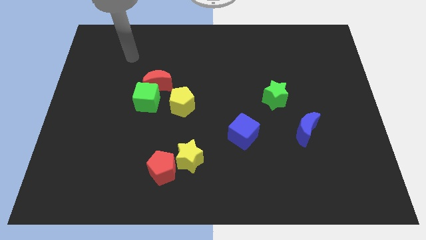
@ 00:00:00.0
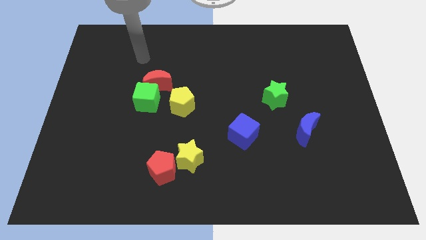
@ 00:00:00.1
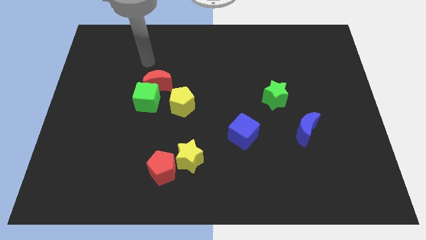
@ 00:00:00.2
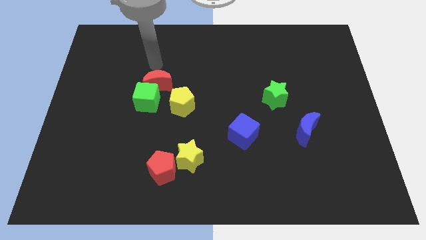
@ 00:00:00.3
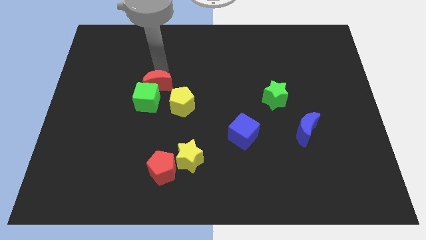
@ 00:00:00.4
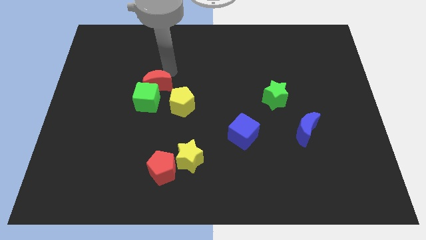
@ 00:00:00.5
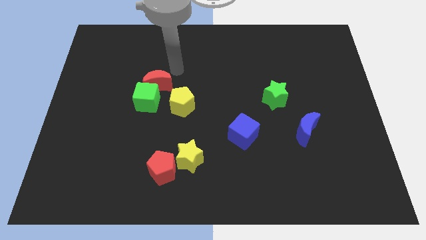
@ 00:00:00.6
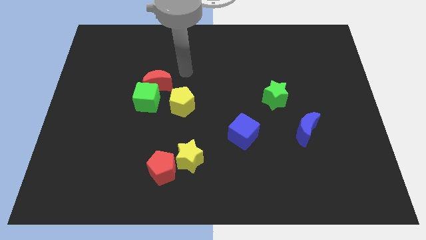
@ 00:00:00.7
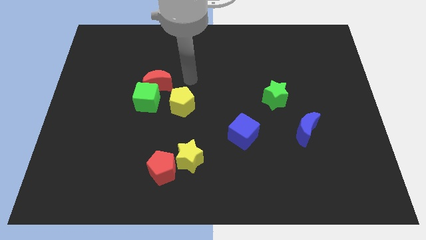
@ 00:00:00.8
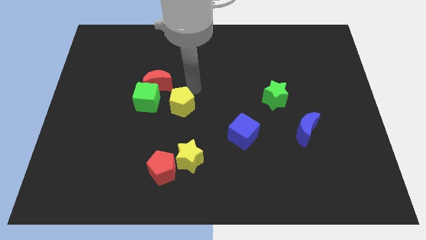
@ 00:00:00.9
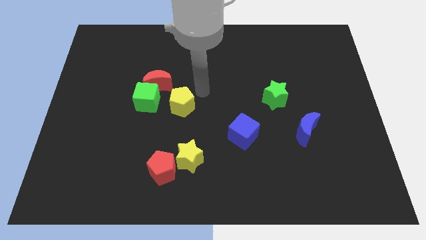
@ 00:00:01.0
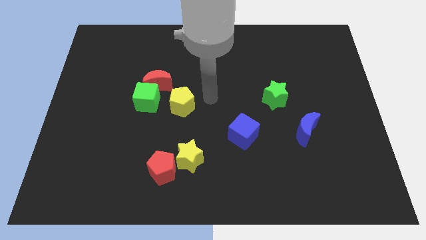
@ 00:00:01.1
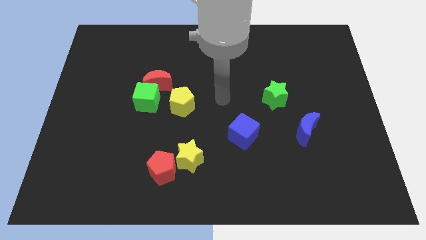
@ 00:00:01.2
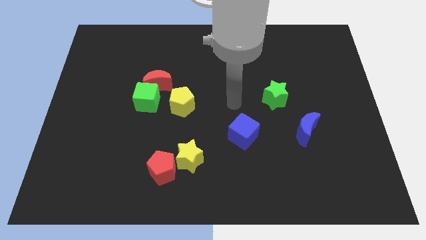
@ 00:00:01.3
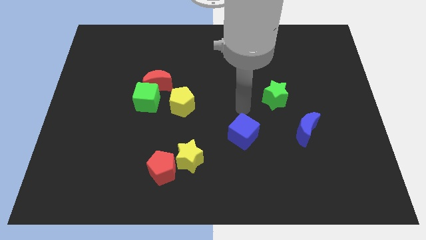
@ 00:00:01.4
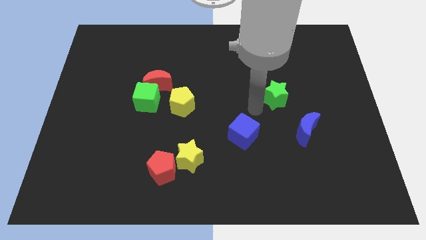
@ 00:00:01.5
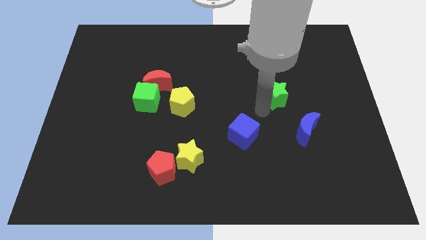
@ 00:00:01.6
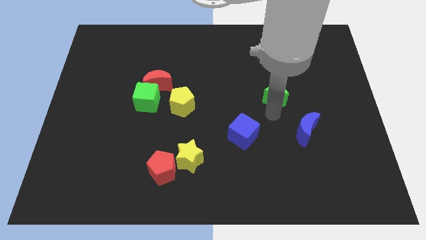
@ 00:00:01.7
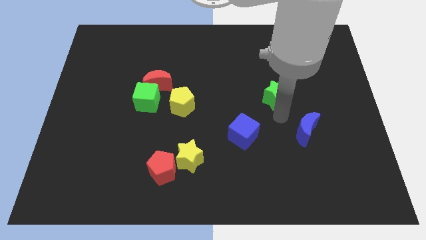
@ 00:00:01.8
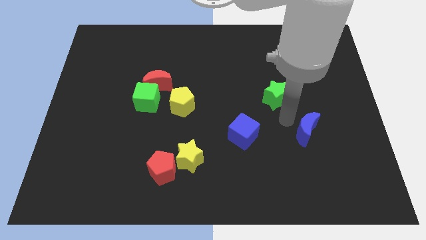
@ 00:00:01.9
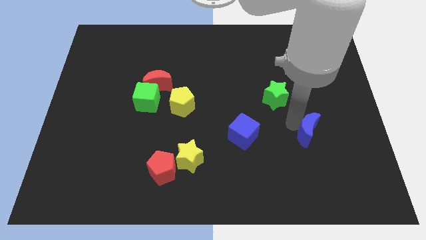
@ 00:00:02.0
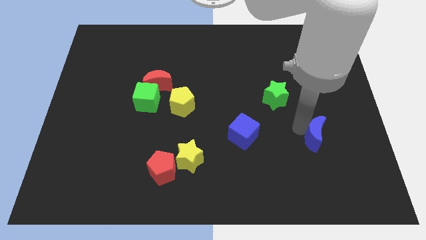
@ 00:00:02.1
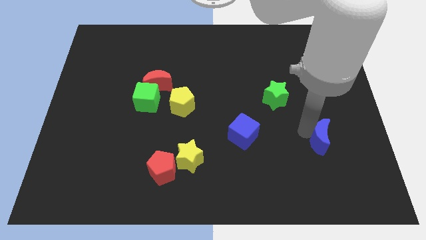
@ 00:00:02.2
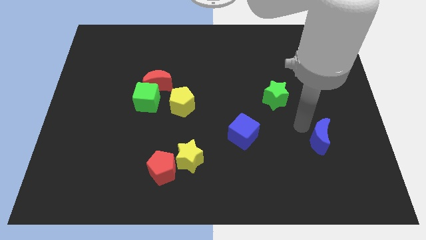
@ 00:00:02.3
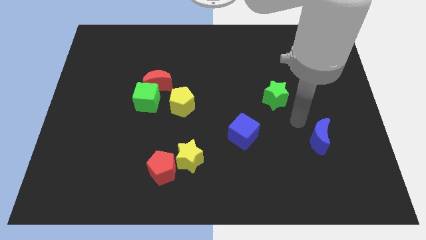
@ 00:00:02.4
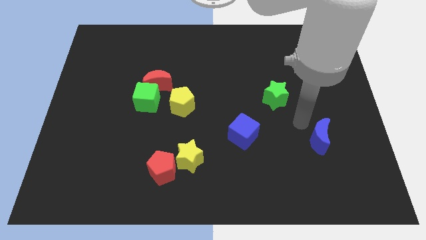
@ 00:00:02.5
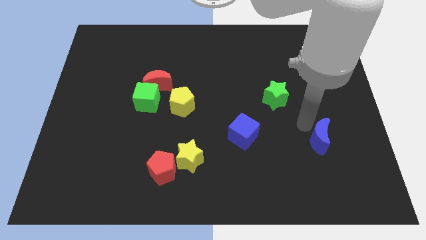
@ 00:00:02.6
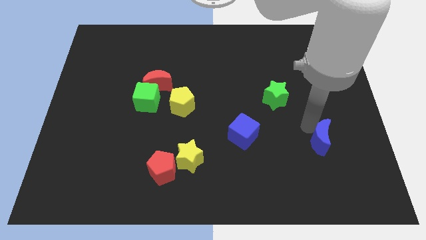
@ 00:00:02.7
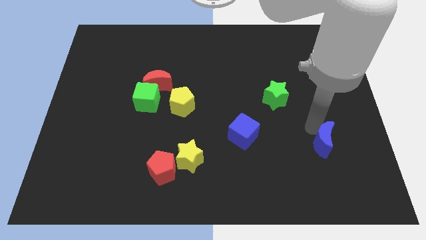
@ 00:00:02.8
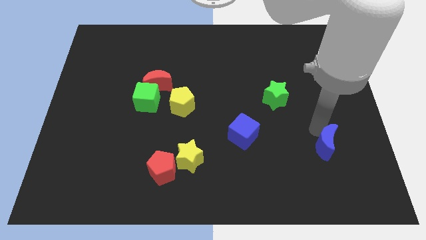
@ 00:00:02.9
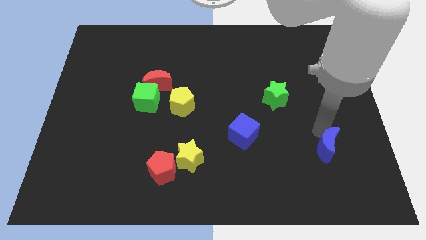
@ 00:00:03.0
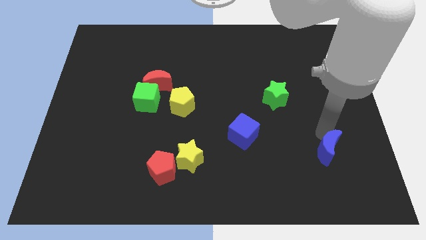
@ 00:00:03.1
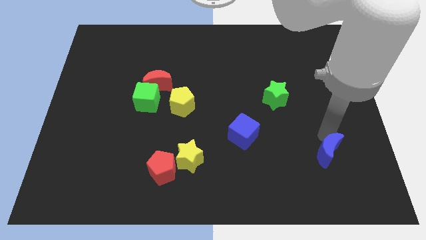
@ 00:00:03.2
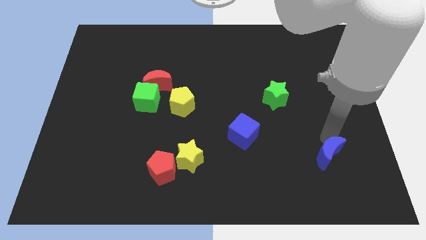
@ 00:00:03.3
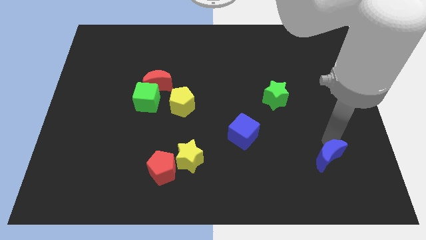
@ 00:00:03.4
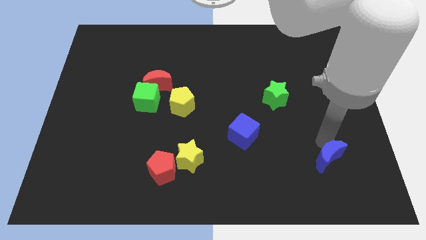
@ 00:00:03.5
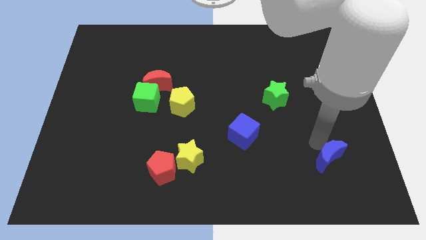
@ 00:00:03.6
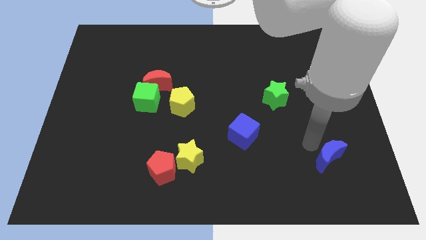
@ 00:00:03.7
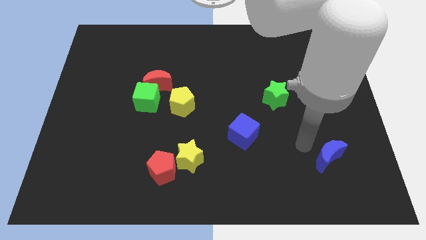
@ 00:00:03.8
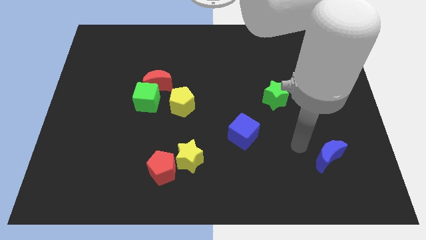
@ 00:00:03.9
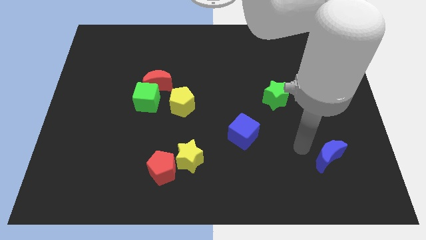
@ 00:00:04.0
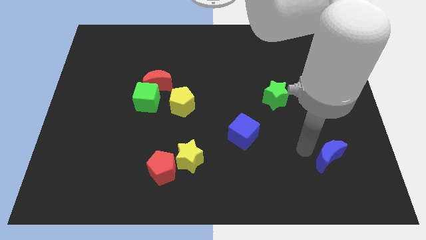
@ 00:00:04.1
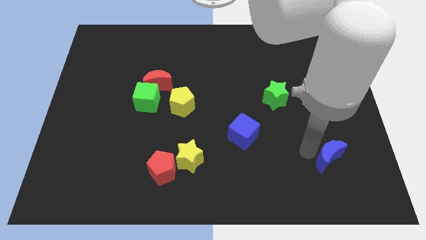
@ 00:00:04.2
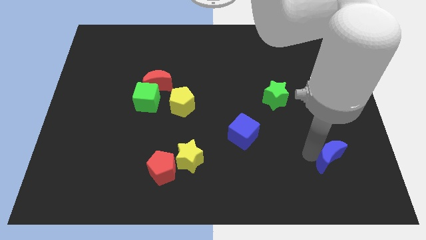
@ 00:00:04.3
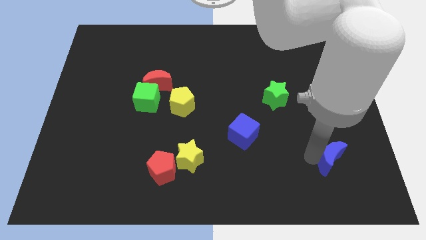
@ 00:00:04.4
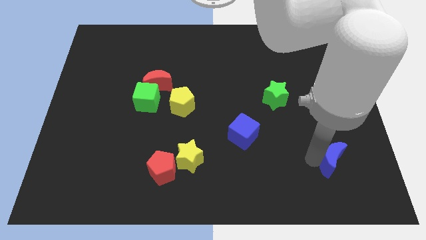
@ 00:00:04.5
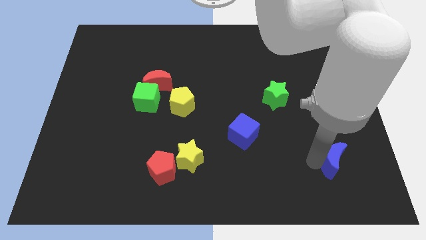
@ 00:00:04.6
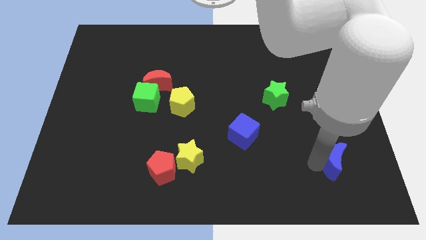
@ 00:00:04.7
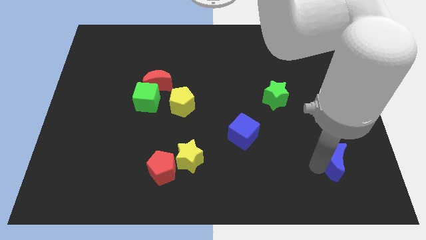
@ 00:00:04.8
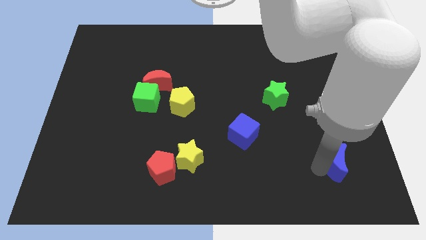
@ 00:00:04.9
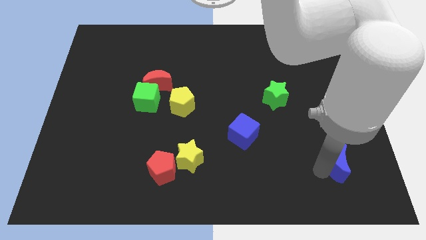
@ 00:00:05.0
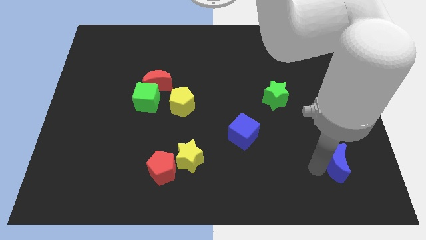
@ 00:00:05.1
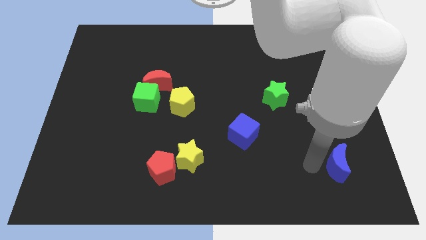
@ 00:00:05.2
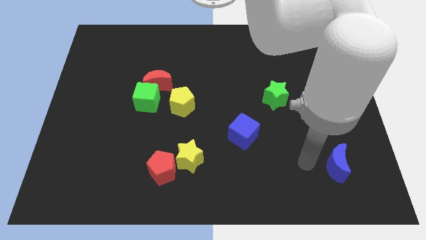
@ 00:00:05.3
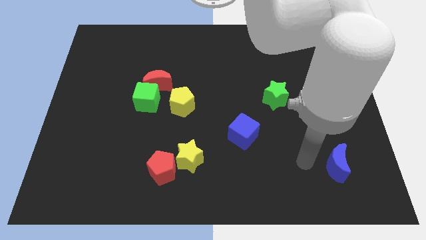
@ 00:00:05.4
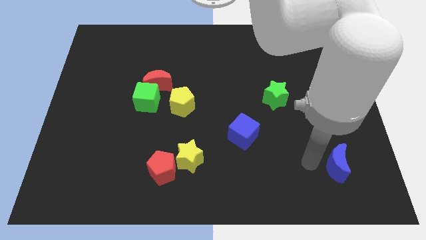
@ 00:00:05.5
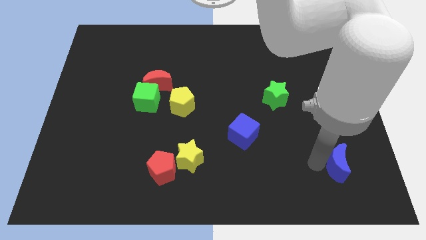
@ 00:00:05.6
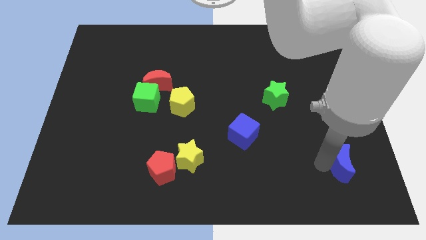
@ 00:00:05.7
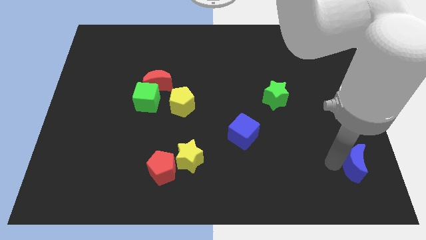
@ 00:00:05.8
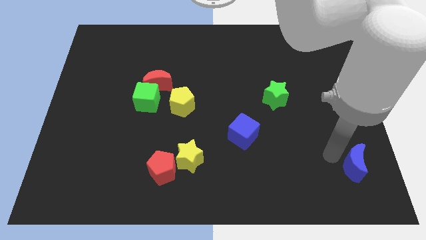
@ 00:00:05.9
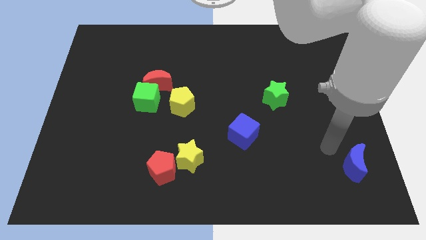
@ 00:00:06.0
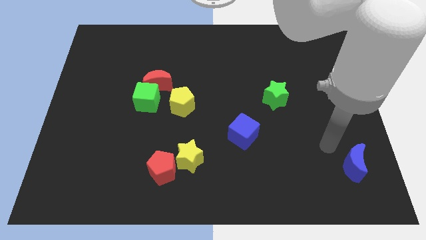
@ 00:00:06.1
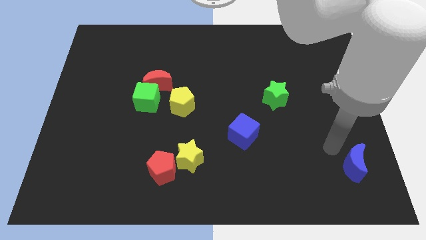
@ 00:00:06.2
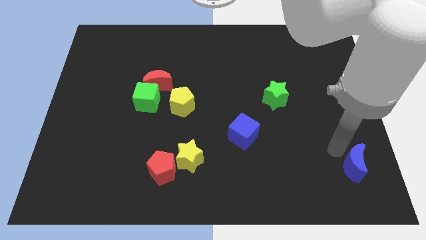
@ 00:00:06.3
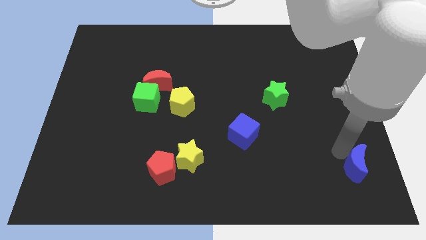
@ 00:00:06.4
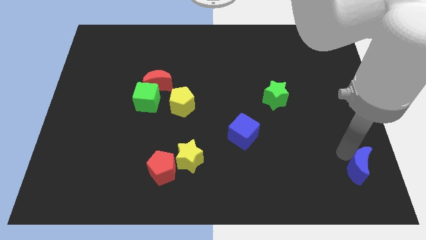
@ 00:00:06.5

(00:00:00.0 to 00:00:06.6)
put the blue moon to the bottom right
